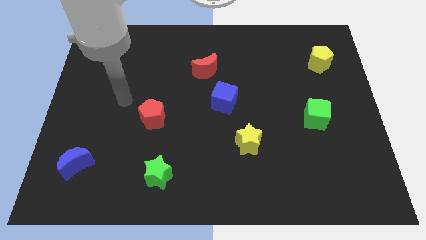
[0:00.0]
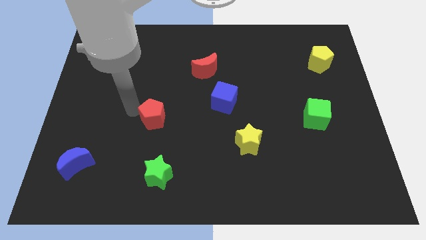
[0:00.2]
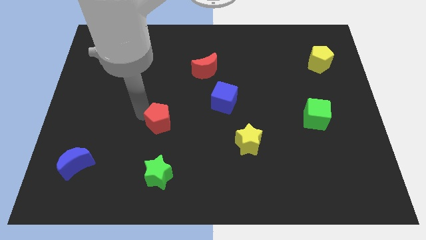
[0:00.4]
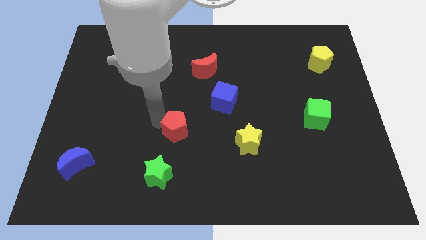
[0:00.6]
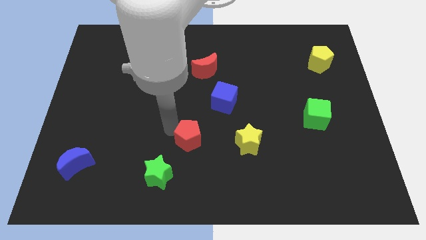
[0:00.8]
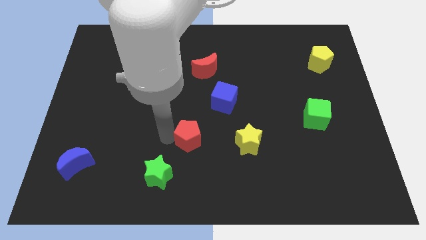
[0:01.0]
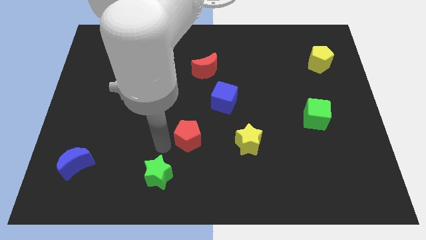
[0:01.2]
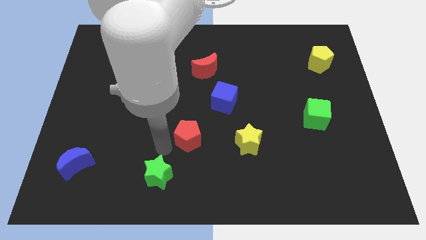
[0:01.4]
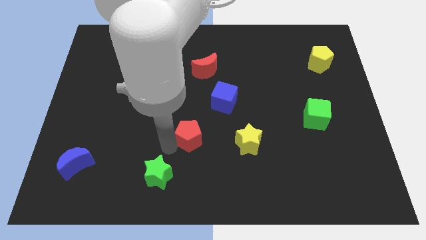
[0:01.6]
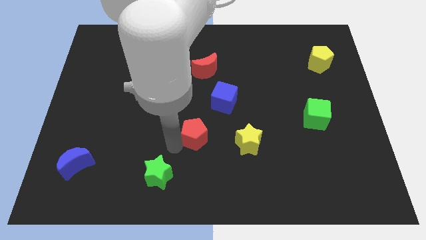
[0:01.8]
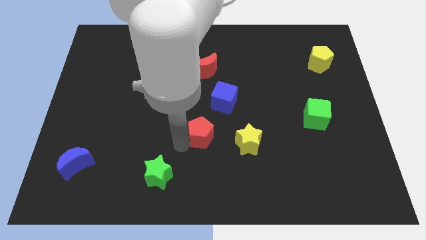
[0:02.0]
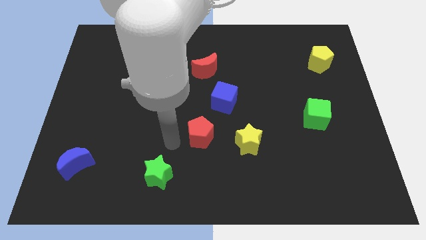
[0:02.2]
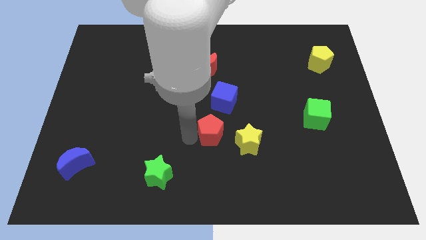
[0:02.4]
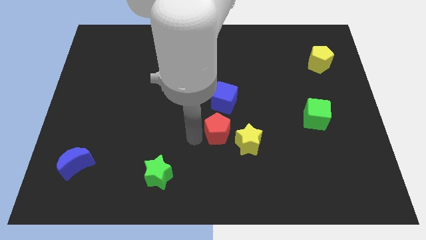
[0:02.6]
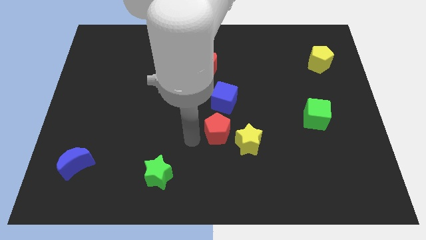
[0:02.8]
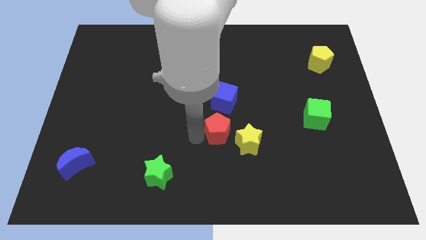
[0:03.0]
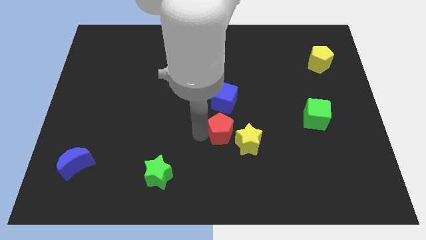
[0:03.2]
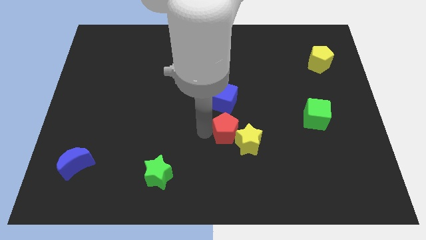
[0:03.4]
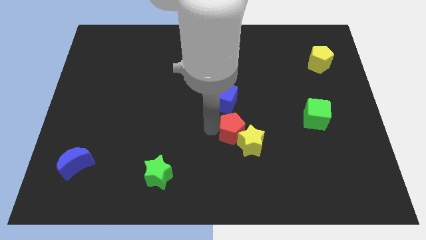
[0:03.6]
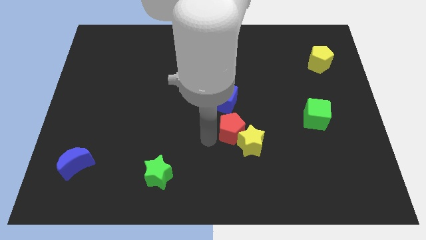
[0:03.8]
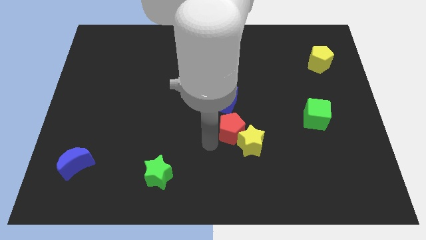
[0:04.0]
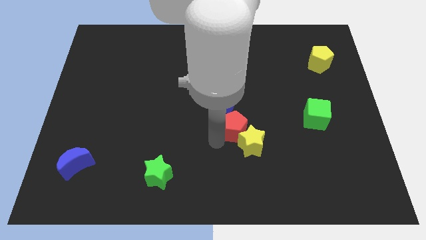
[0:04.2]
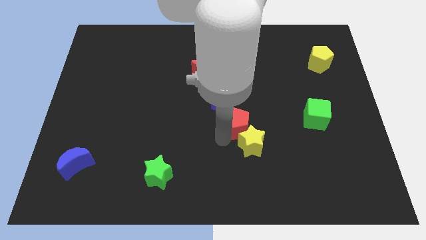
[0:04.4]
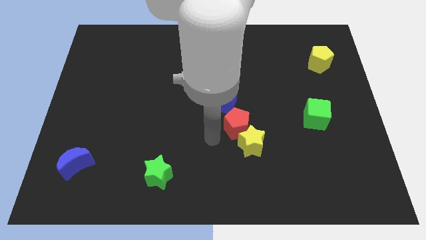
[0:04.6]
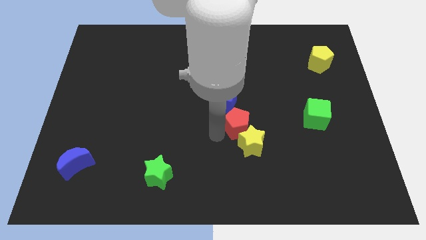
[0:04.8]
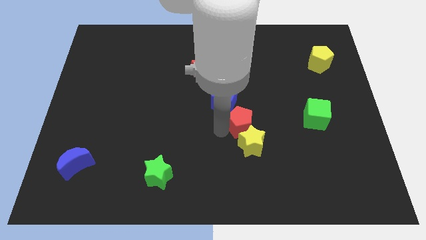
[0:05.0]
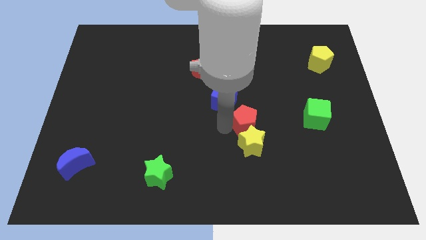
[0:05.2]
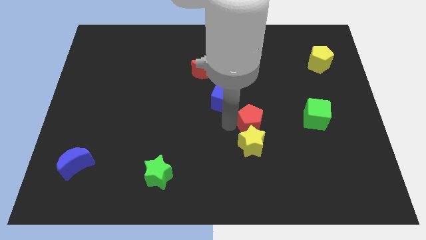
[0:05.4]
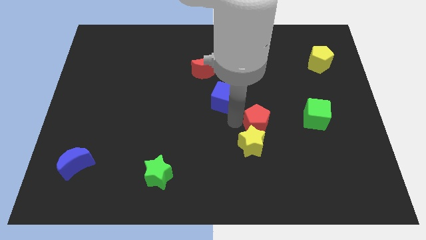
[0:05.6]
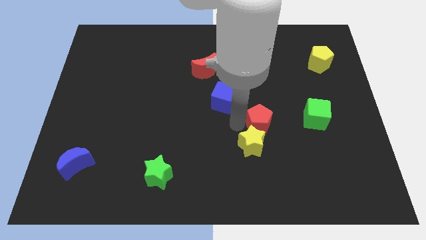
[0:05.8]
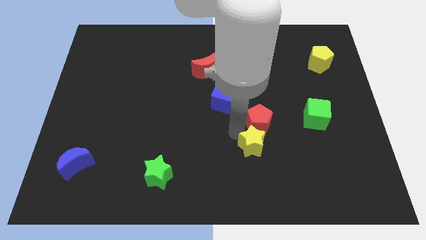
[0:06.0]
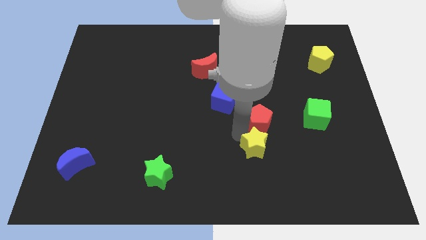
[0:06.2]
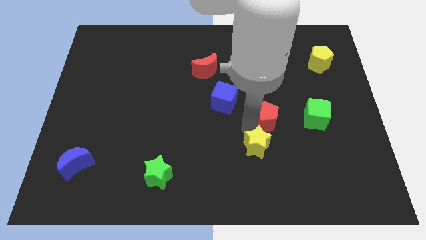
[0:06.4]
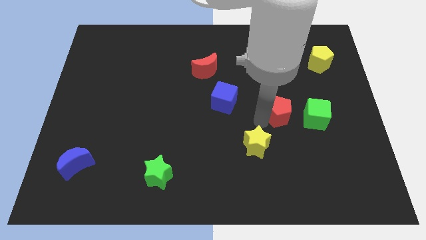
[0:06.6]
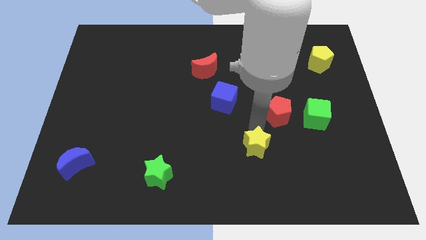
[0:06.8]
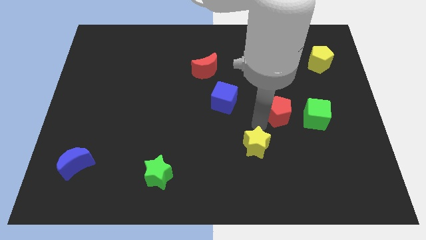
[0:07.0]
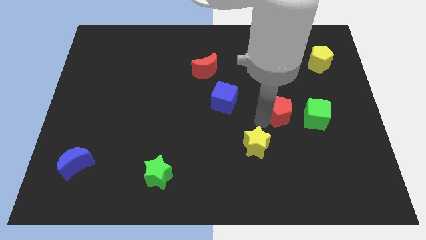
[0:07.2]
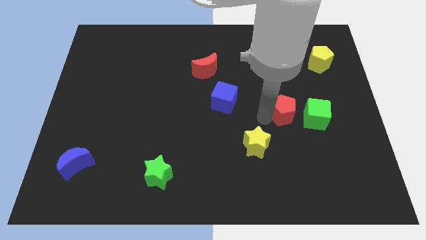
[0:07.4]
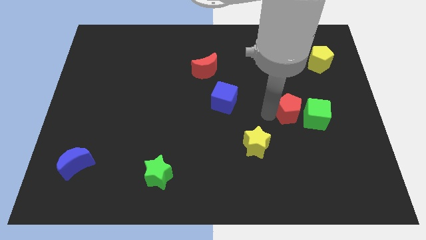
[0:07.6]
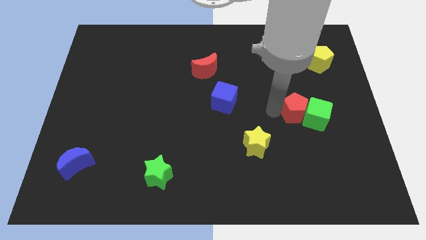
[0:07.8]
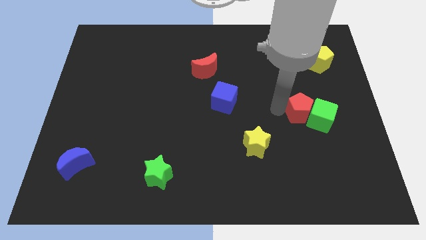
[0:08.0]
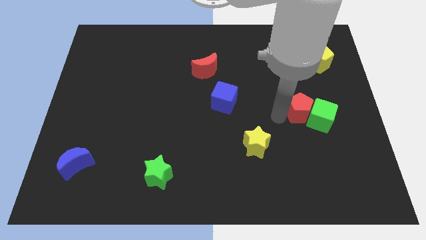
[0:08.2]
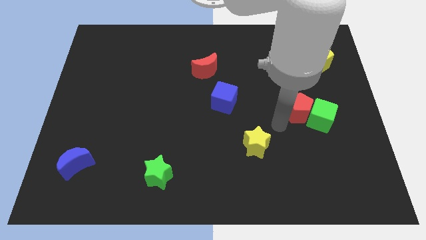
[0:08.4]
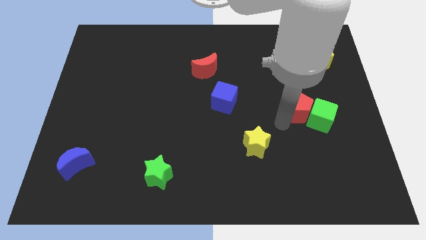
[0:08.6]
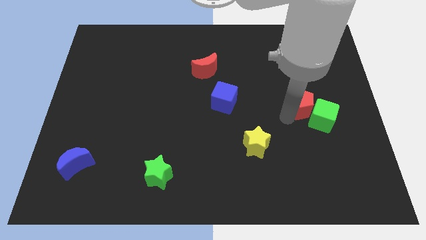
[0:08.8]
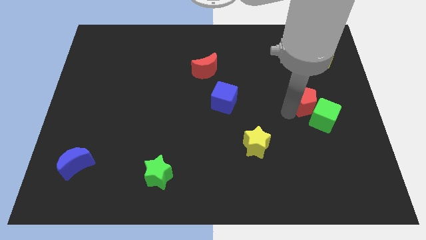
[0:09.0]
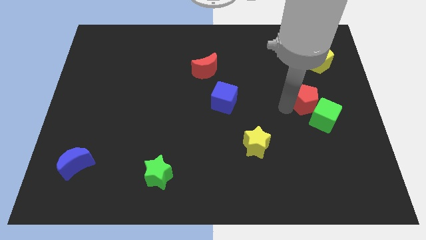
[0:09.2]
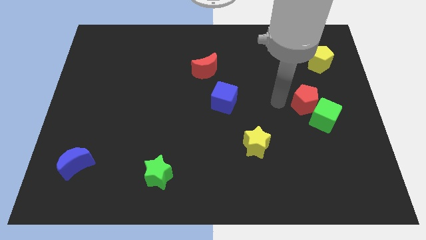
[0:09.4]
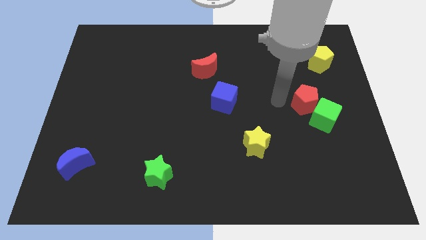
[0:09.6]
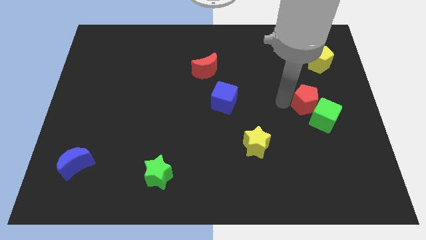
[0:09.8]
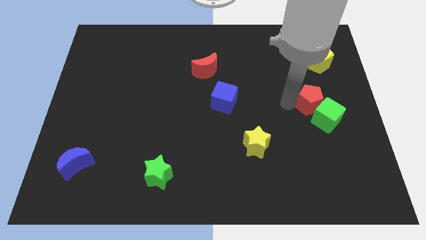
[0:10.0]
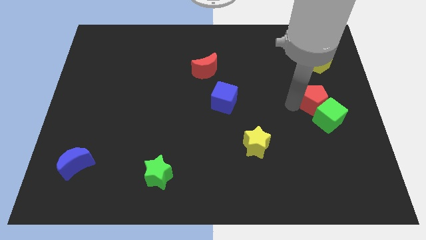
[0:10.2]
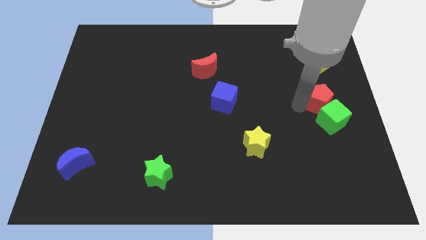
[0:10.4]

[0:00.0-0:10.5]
push the red pentagon to the right side of the board

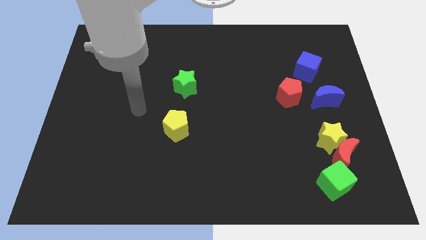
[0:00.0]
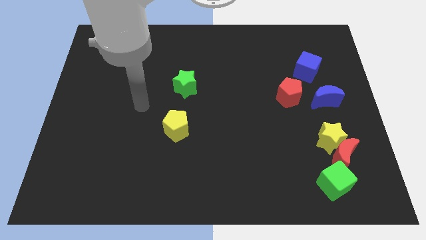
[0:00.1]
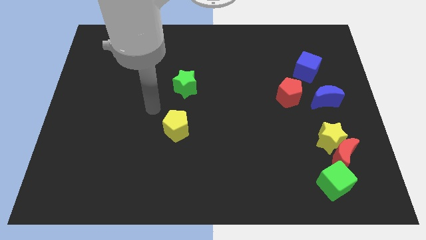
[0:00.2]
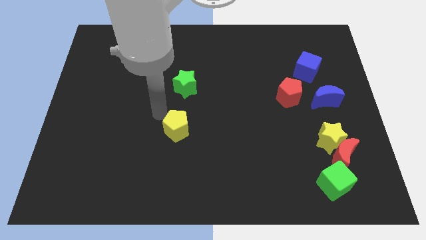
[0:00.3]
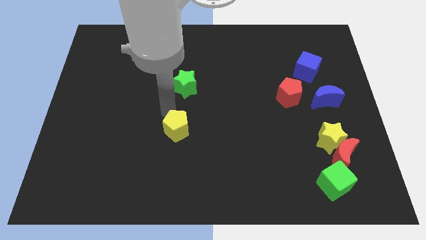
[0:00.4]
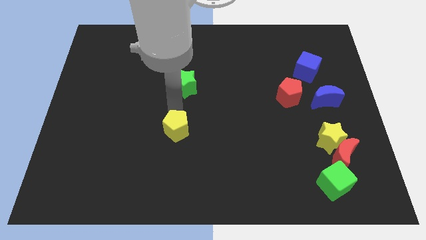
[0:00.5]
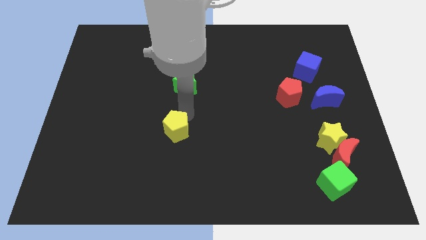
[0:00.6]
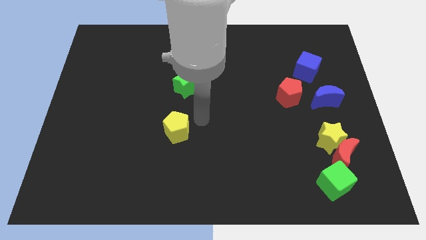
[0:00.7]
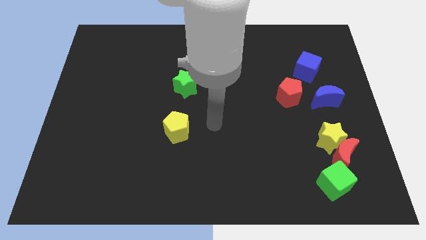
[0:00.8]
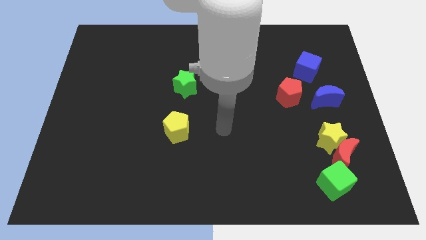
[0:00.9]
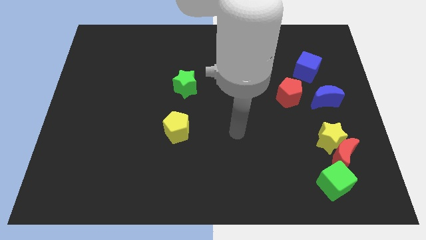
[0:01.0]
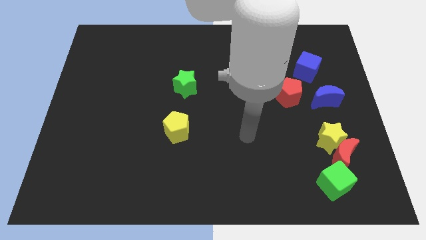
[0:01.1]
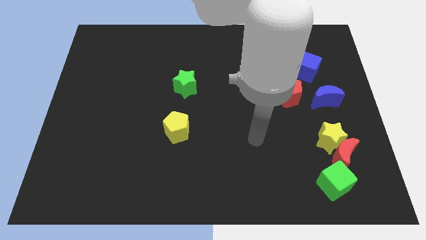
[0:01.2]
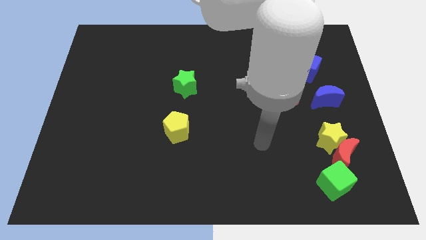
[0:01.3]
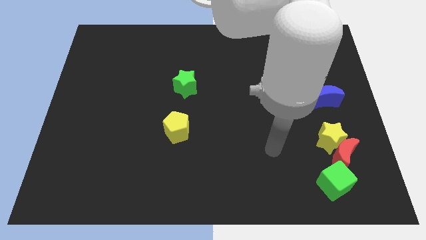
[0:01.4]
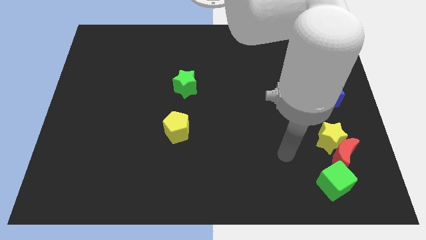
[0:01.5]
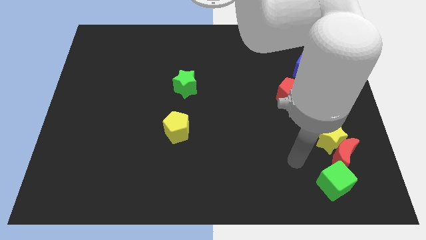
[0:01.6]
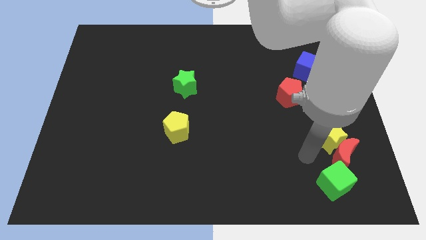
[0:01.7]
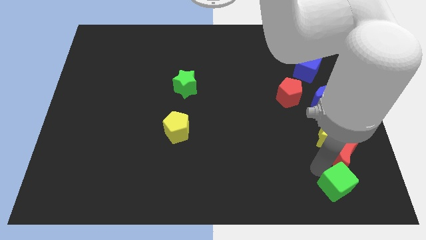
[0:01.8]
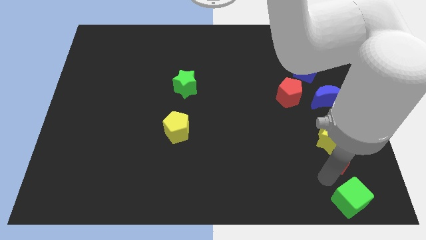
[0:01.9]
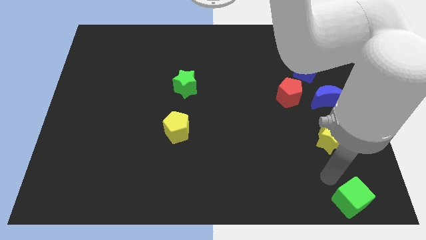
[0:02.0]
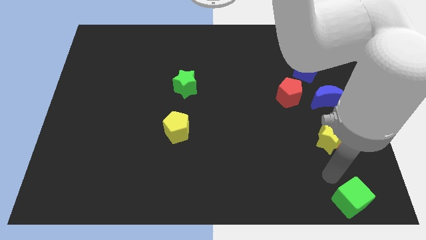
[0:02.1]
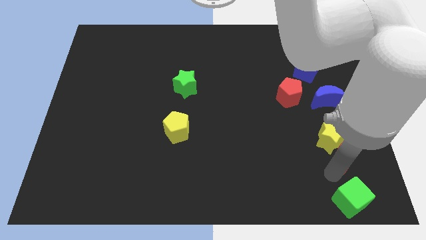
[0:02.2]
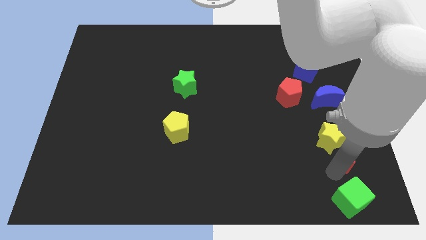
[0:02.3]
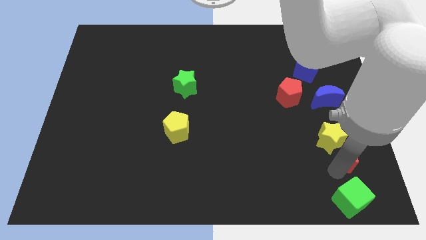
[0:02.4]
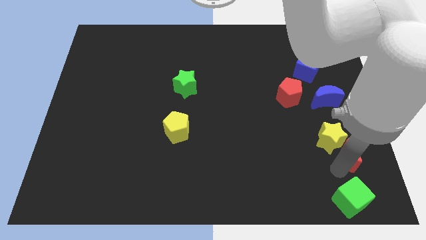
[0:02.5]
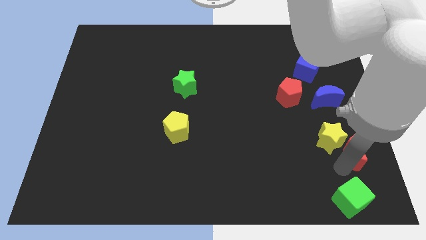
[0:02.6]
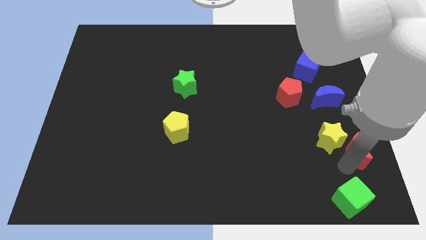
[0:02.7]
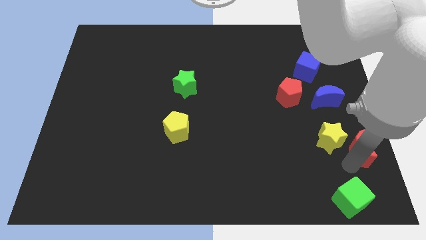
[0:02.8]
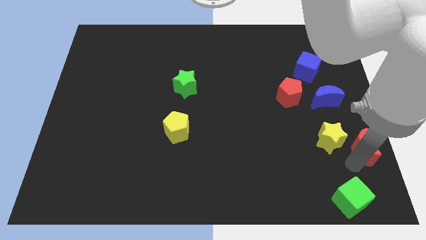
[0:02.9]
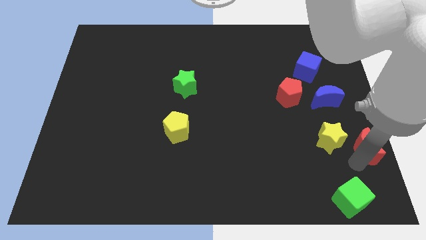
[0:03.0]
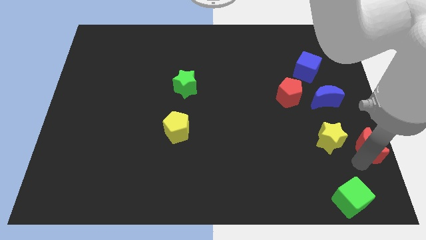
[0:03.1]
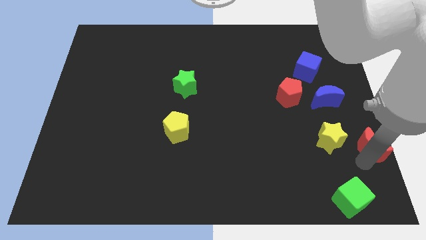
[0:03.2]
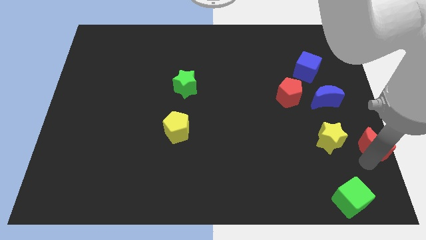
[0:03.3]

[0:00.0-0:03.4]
slide the red moon to the right side
